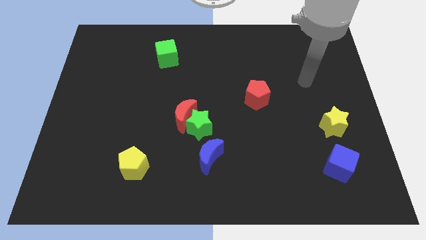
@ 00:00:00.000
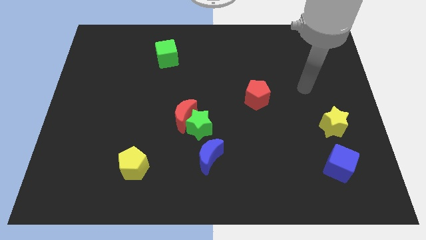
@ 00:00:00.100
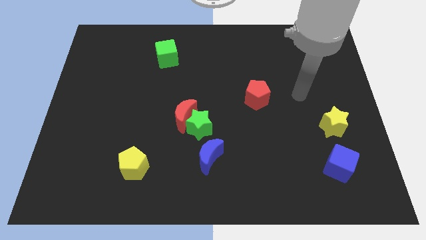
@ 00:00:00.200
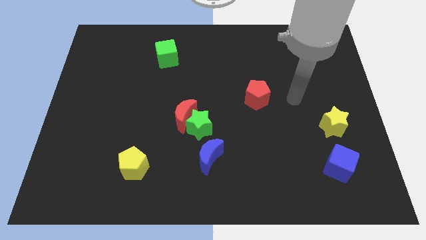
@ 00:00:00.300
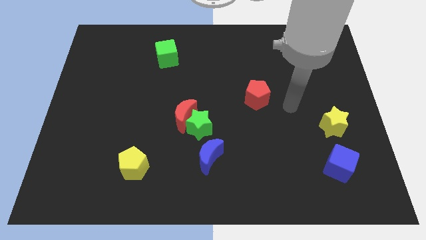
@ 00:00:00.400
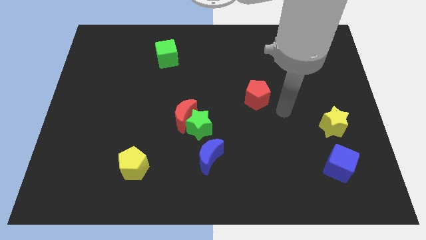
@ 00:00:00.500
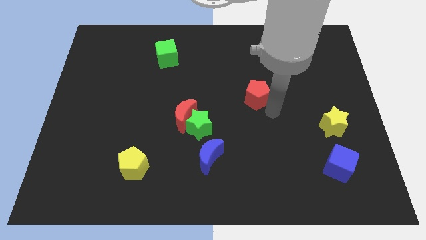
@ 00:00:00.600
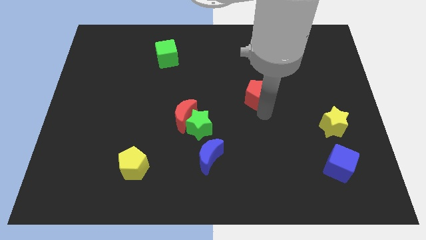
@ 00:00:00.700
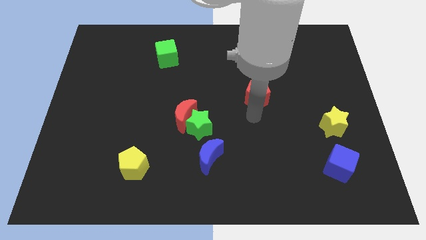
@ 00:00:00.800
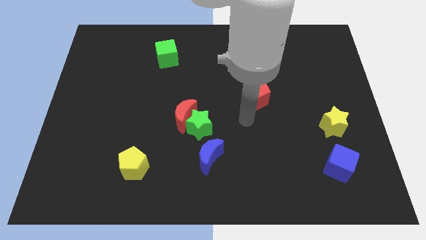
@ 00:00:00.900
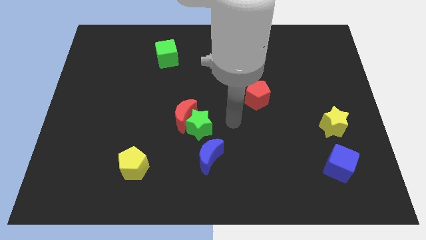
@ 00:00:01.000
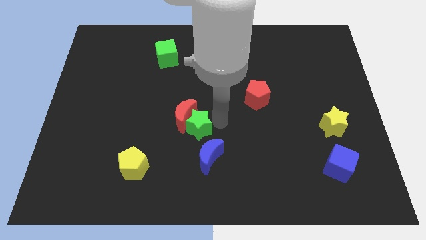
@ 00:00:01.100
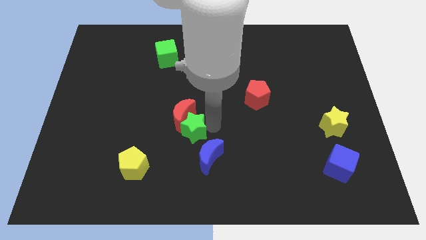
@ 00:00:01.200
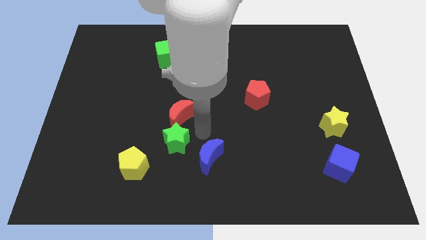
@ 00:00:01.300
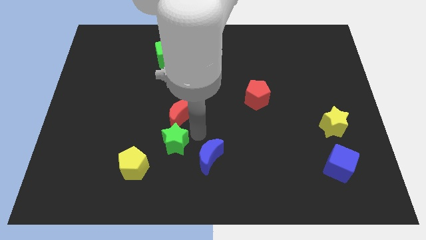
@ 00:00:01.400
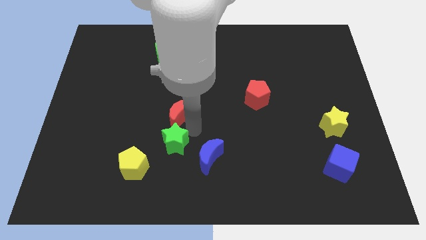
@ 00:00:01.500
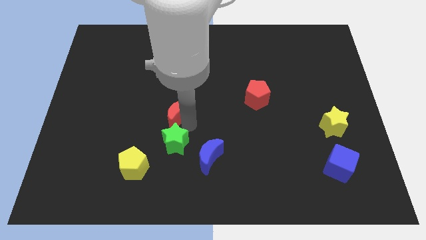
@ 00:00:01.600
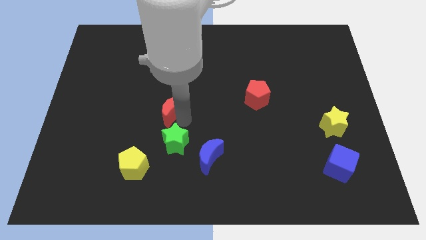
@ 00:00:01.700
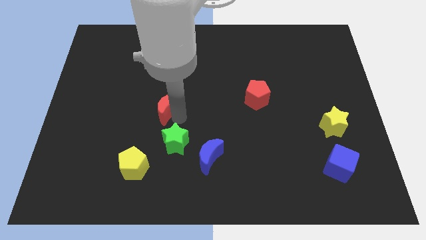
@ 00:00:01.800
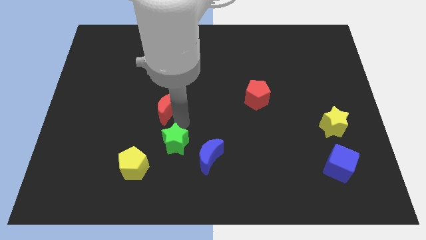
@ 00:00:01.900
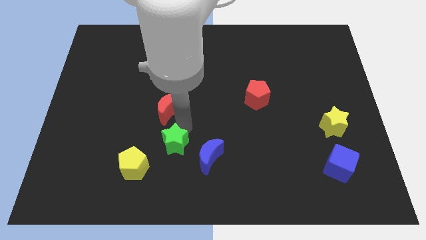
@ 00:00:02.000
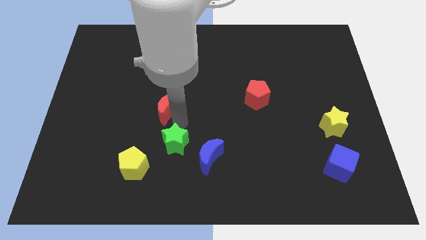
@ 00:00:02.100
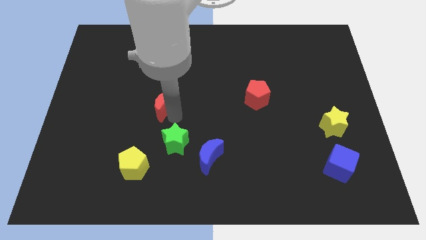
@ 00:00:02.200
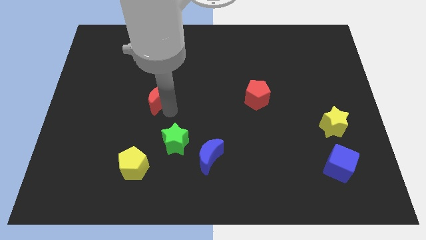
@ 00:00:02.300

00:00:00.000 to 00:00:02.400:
slightly slide the red moon upwards and then left

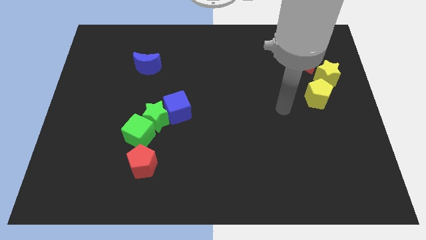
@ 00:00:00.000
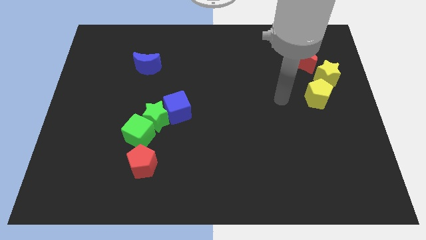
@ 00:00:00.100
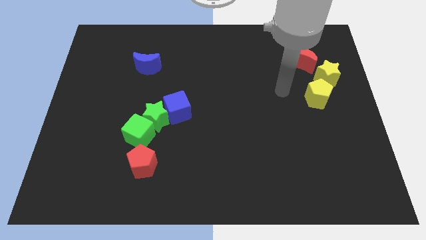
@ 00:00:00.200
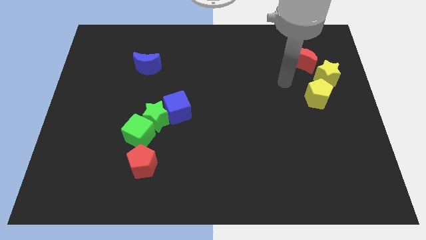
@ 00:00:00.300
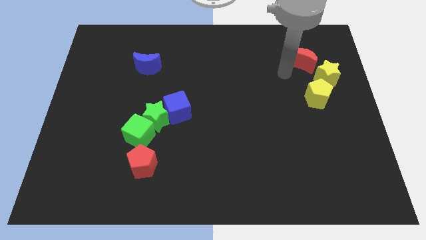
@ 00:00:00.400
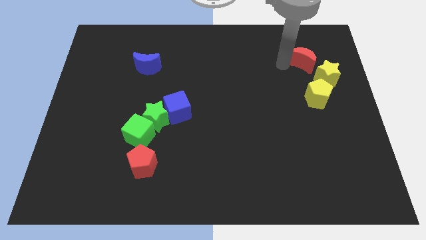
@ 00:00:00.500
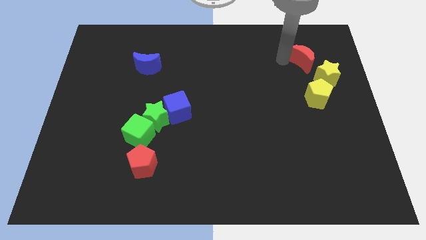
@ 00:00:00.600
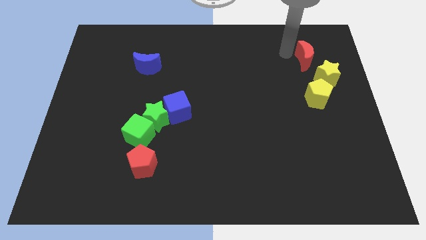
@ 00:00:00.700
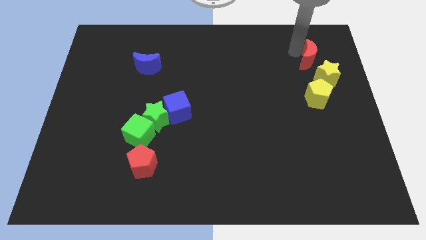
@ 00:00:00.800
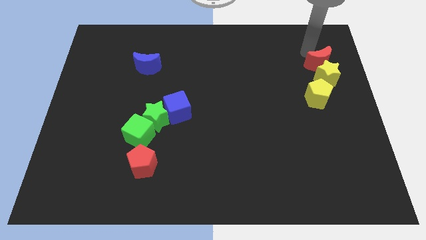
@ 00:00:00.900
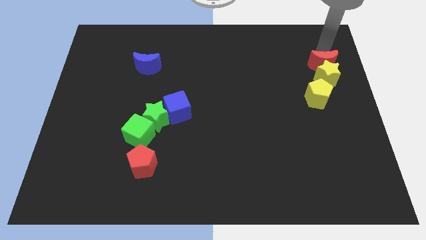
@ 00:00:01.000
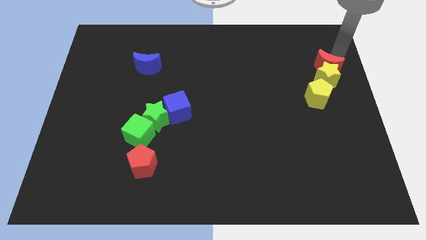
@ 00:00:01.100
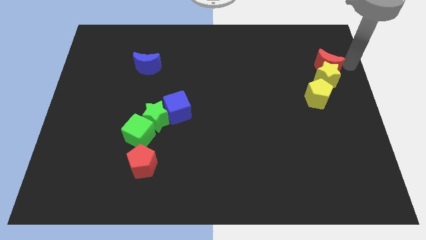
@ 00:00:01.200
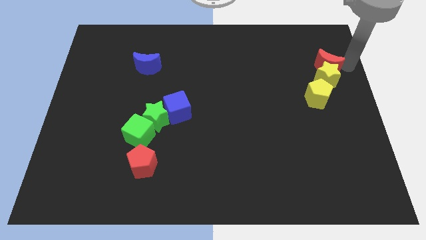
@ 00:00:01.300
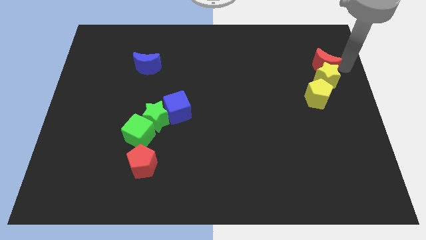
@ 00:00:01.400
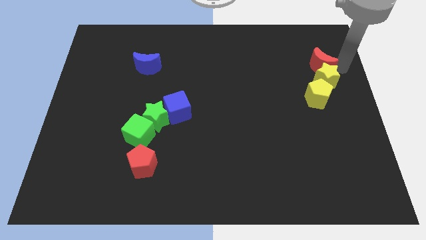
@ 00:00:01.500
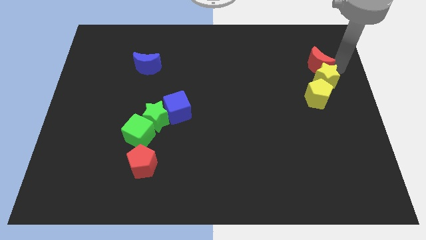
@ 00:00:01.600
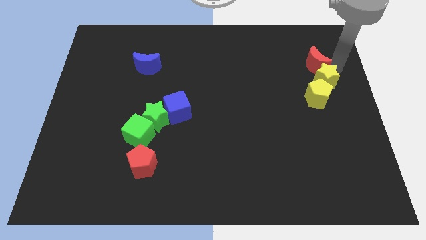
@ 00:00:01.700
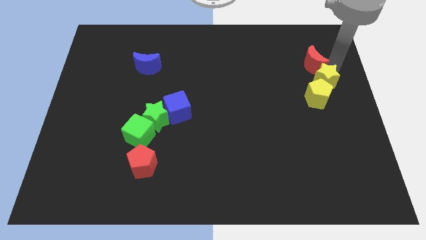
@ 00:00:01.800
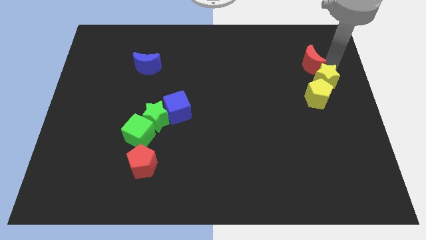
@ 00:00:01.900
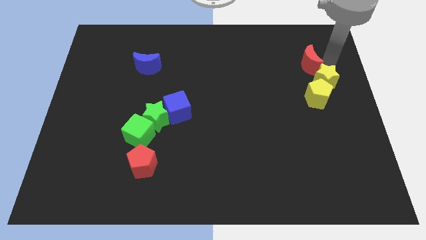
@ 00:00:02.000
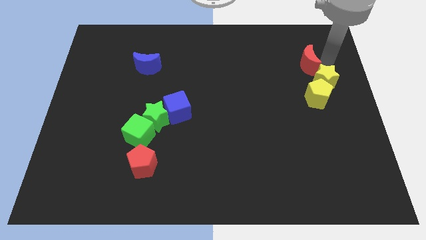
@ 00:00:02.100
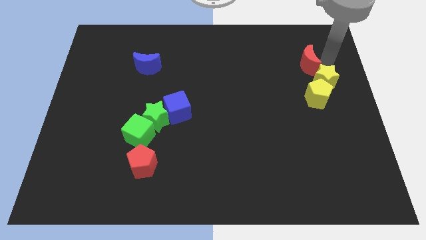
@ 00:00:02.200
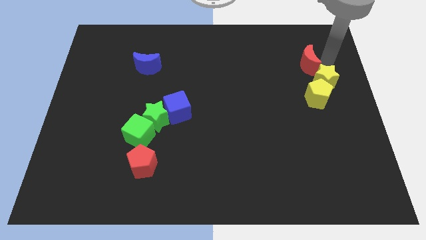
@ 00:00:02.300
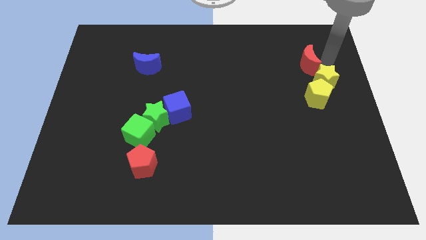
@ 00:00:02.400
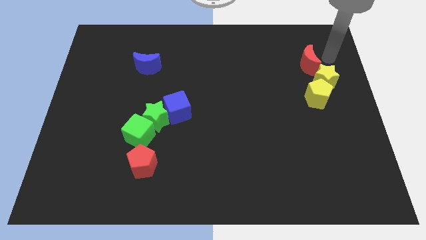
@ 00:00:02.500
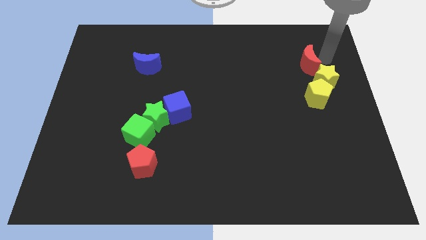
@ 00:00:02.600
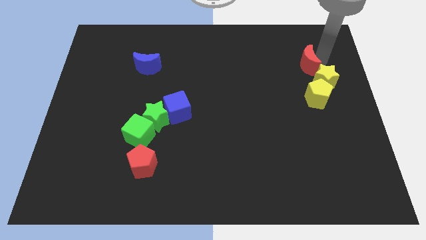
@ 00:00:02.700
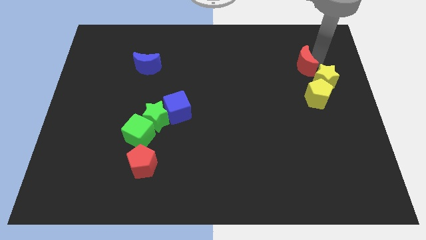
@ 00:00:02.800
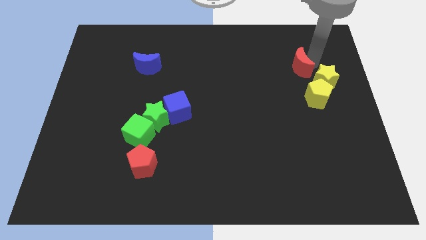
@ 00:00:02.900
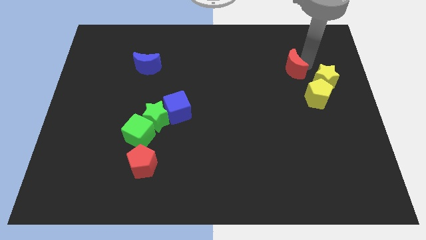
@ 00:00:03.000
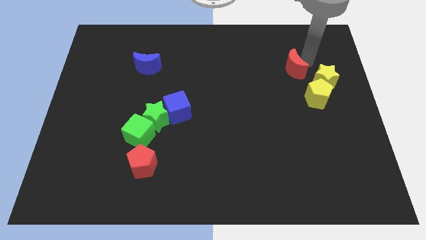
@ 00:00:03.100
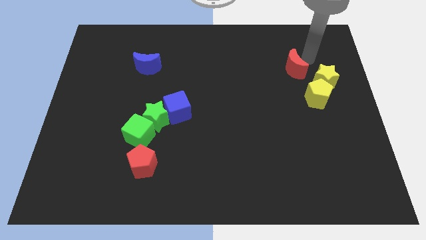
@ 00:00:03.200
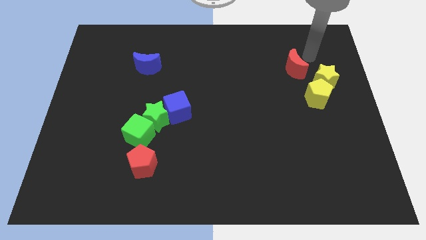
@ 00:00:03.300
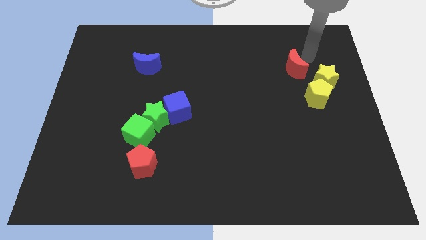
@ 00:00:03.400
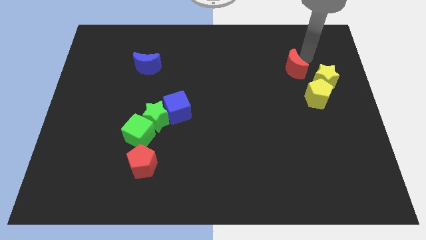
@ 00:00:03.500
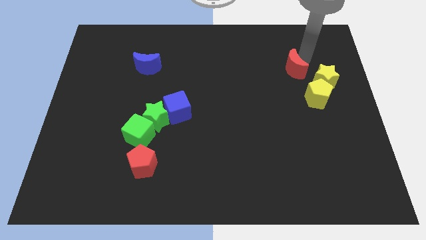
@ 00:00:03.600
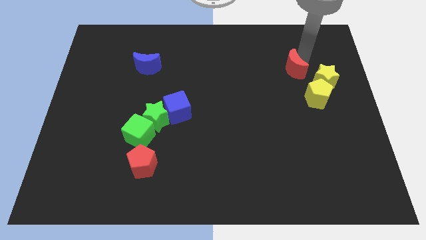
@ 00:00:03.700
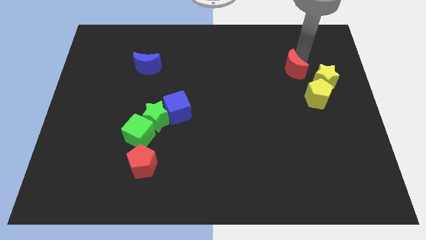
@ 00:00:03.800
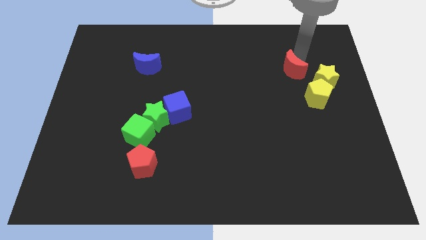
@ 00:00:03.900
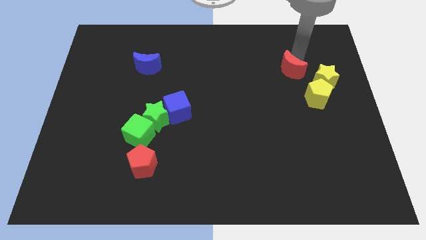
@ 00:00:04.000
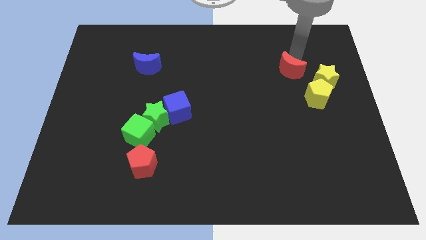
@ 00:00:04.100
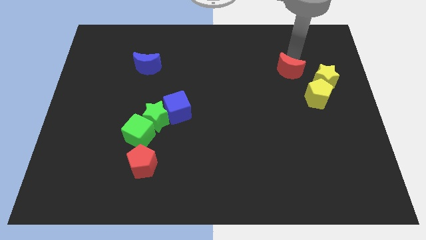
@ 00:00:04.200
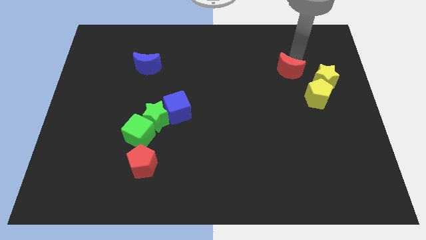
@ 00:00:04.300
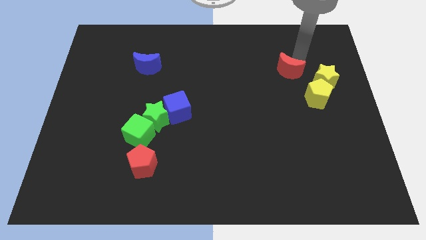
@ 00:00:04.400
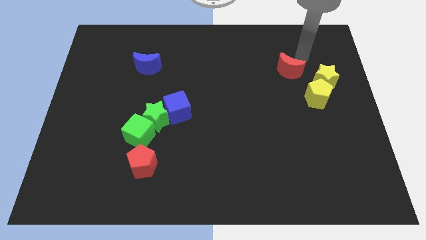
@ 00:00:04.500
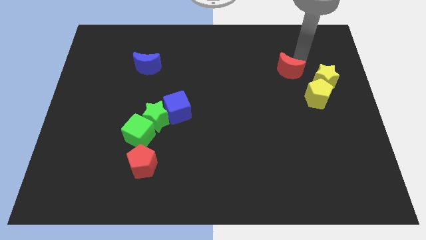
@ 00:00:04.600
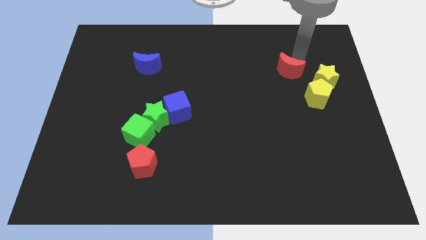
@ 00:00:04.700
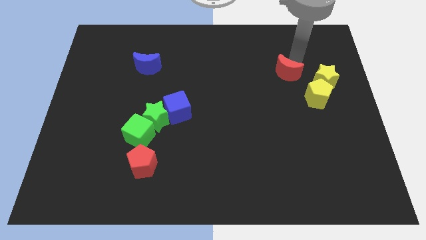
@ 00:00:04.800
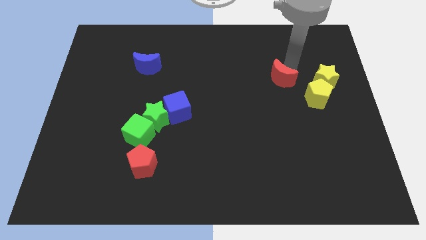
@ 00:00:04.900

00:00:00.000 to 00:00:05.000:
move the red moon slightly downwards and to the left diagonally

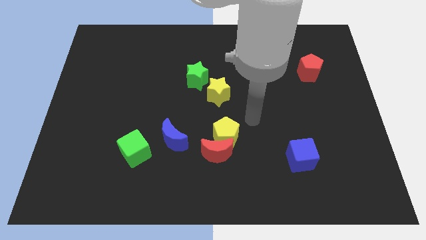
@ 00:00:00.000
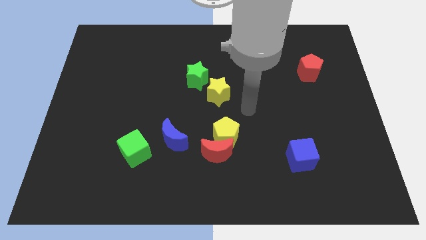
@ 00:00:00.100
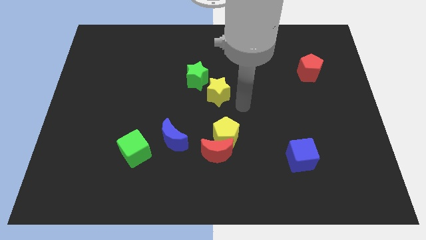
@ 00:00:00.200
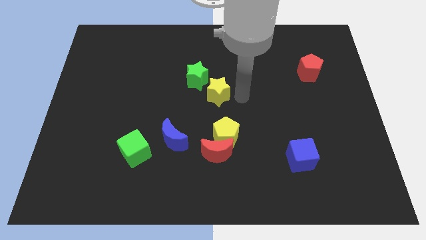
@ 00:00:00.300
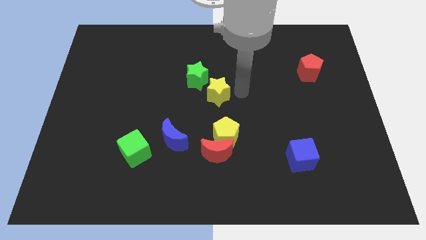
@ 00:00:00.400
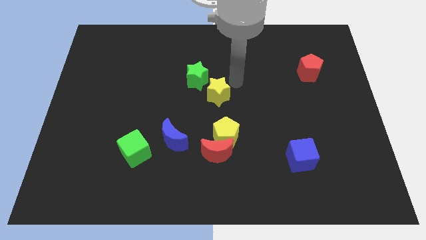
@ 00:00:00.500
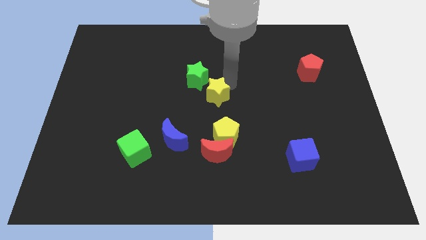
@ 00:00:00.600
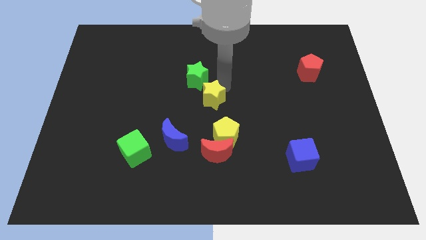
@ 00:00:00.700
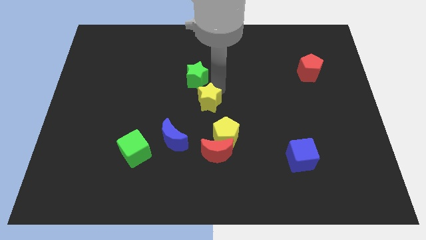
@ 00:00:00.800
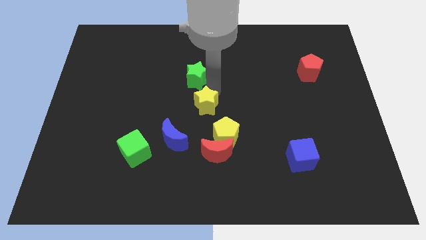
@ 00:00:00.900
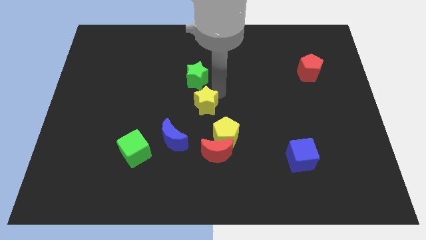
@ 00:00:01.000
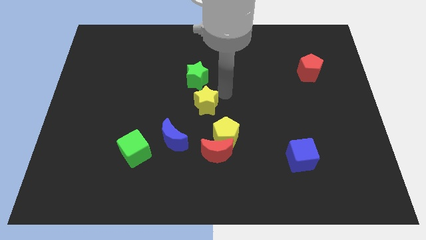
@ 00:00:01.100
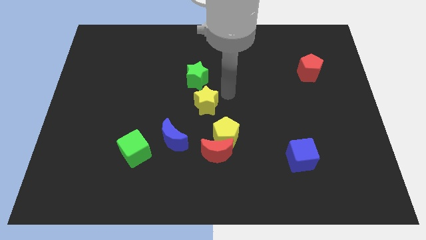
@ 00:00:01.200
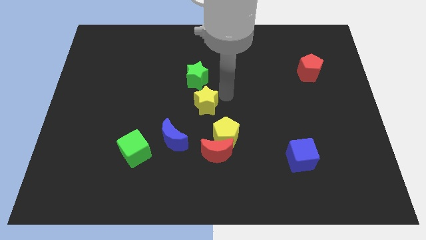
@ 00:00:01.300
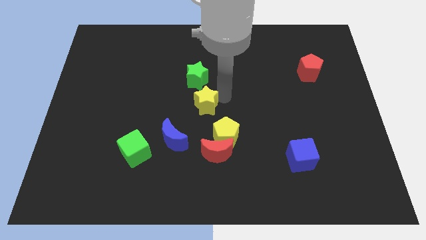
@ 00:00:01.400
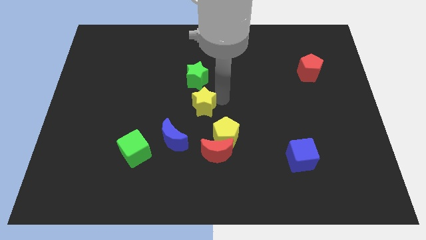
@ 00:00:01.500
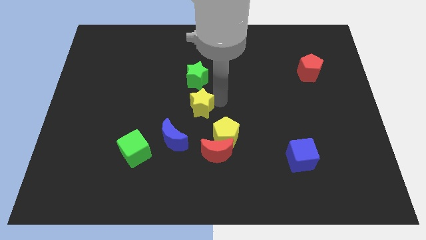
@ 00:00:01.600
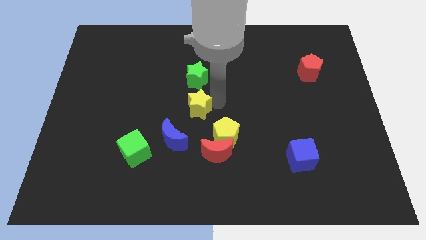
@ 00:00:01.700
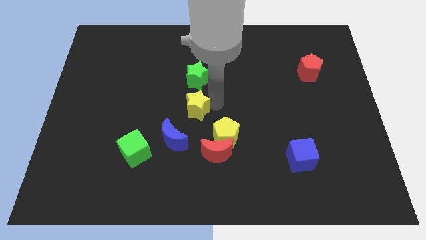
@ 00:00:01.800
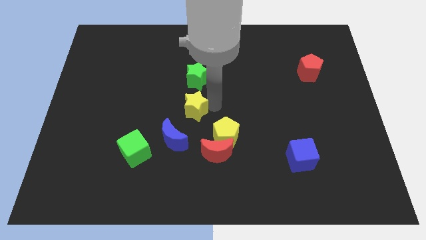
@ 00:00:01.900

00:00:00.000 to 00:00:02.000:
push the yellow star somewhat diagonally downwards and to the left
